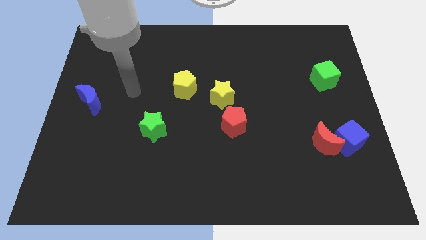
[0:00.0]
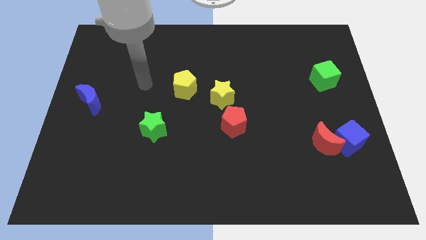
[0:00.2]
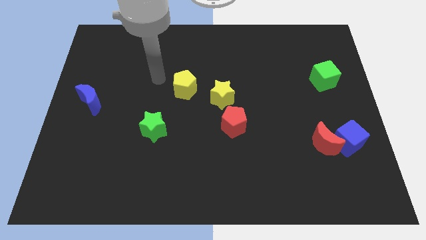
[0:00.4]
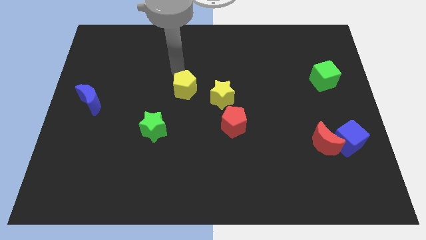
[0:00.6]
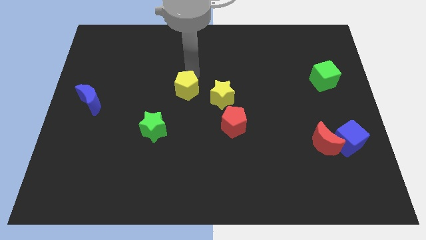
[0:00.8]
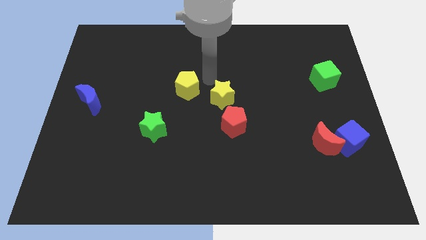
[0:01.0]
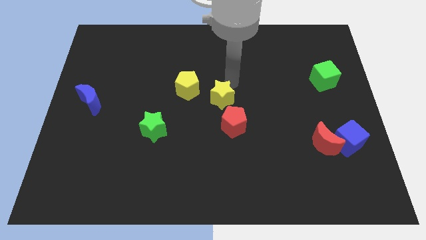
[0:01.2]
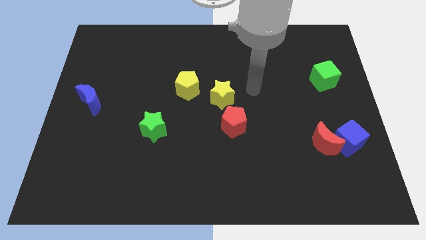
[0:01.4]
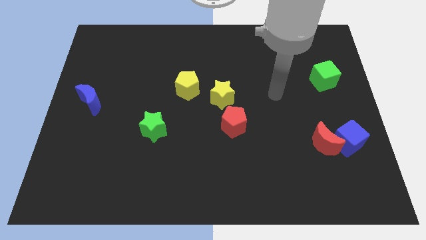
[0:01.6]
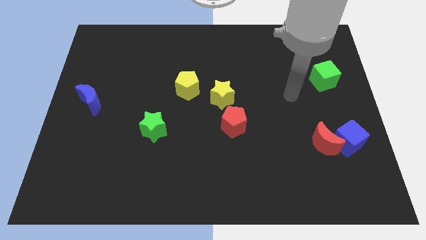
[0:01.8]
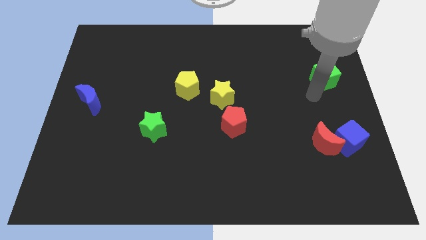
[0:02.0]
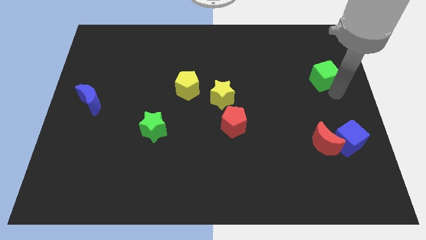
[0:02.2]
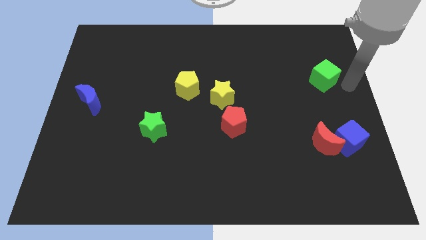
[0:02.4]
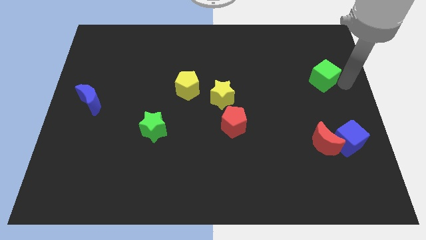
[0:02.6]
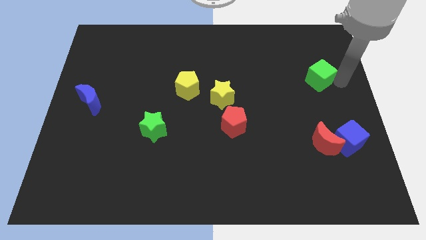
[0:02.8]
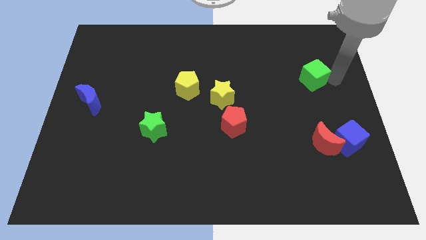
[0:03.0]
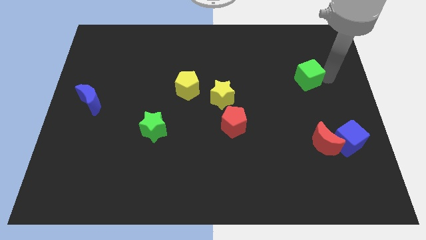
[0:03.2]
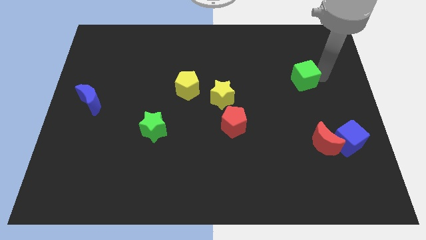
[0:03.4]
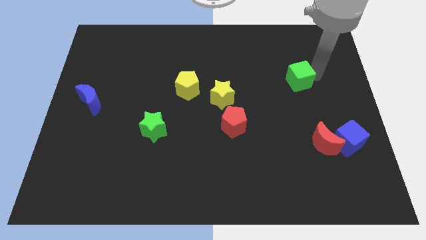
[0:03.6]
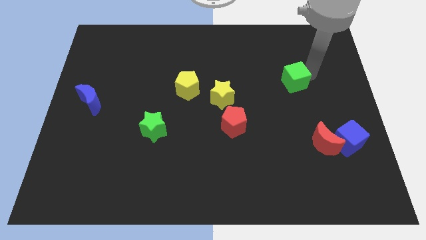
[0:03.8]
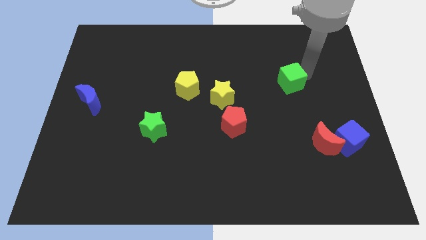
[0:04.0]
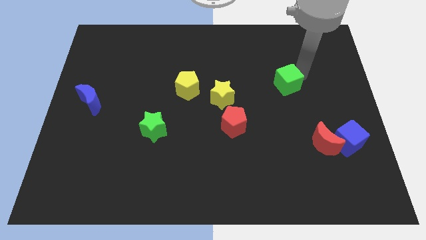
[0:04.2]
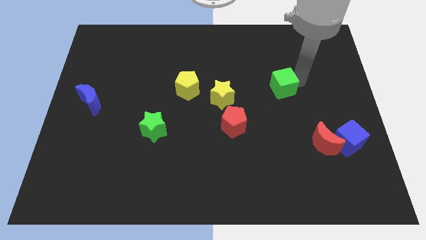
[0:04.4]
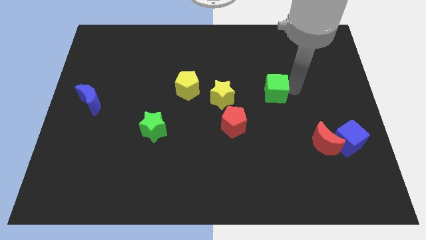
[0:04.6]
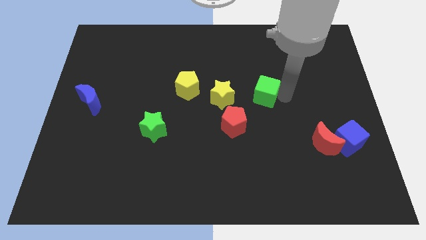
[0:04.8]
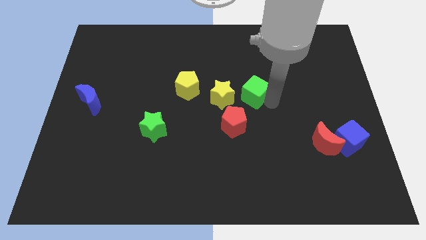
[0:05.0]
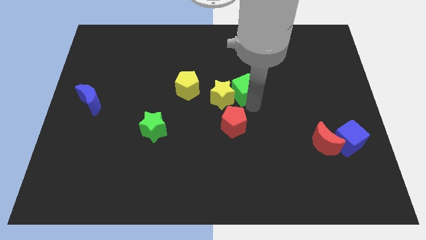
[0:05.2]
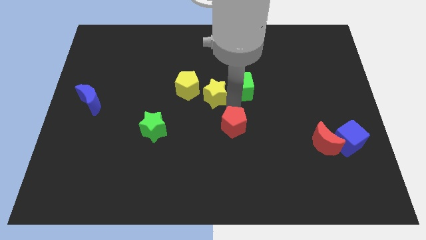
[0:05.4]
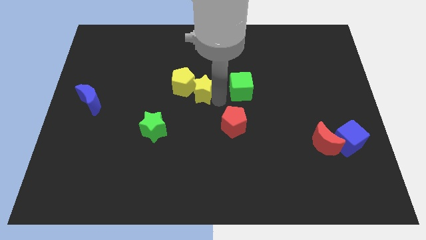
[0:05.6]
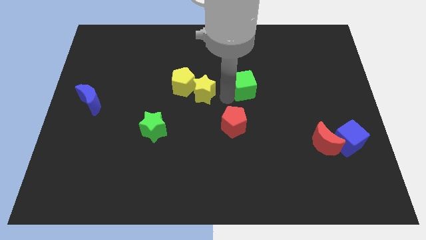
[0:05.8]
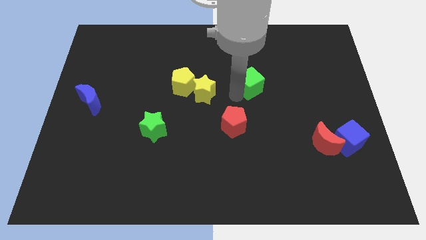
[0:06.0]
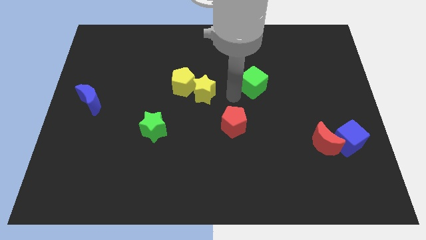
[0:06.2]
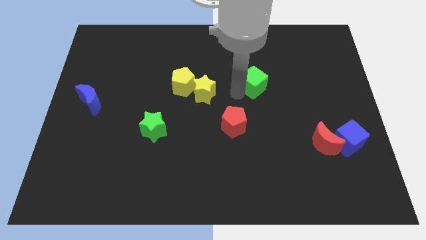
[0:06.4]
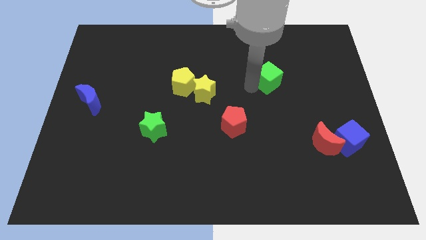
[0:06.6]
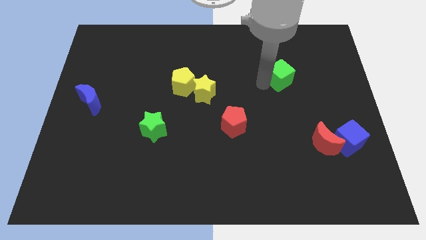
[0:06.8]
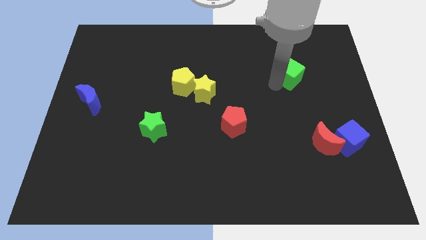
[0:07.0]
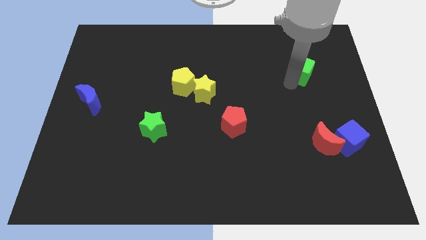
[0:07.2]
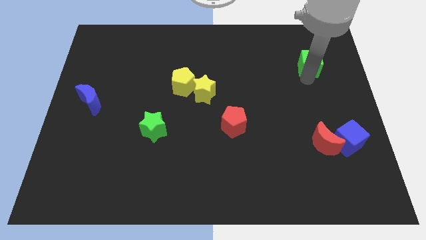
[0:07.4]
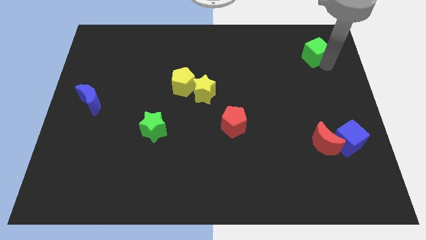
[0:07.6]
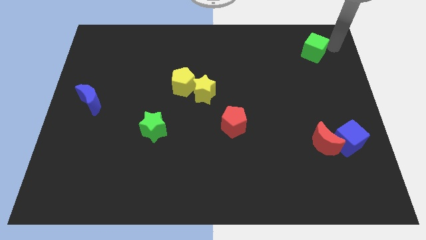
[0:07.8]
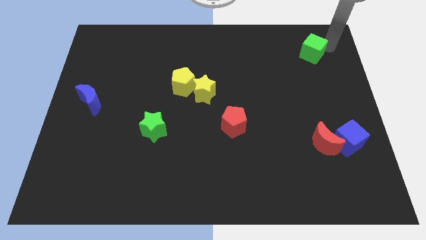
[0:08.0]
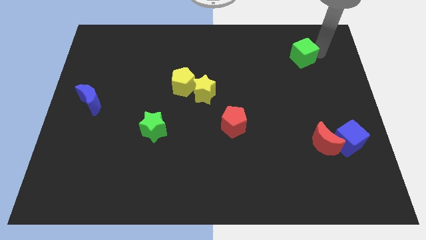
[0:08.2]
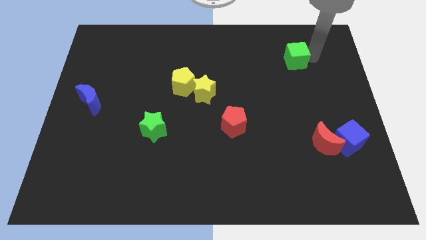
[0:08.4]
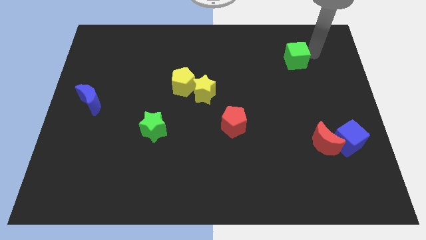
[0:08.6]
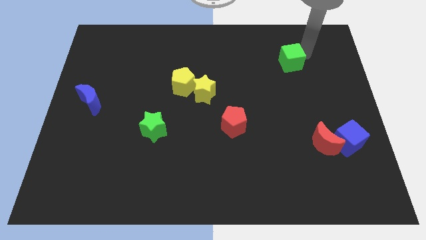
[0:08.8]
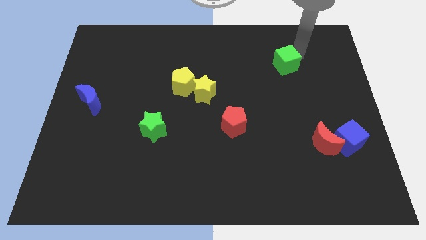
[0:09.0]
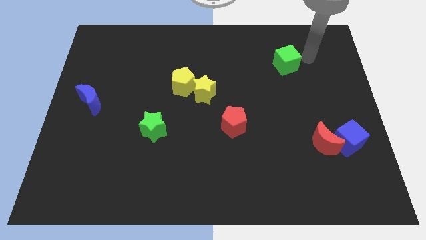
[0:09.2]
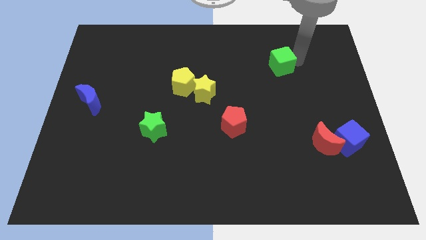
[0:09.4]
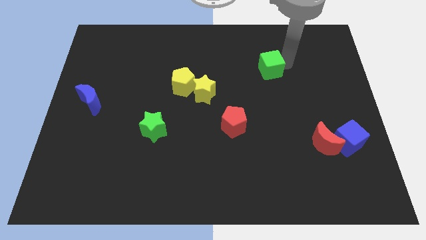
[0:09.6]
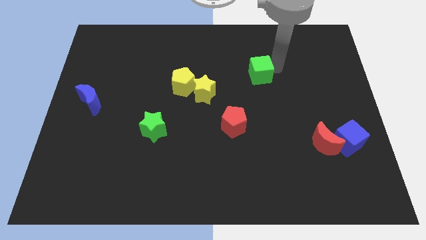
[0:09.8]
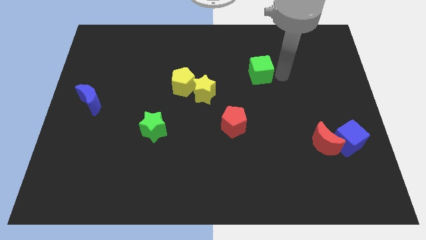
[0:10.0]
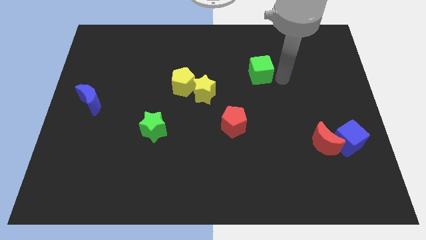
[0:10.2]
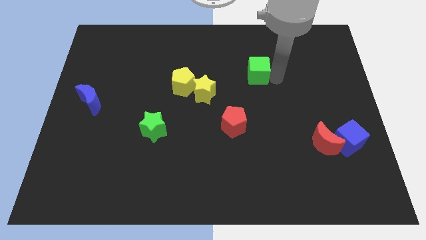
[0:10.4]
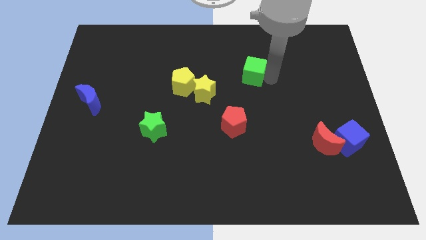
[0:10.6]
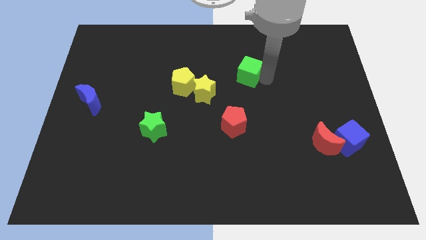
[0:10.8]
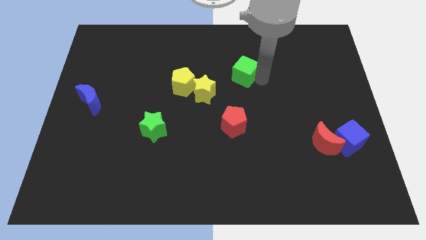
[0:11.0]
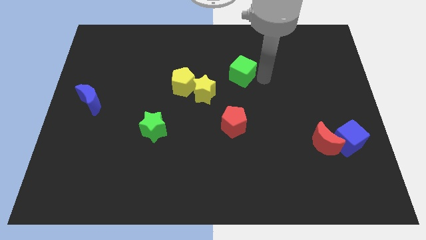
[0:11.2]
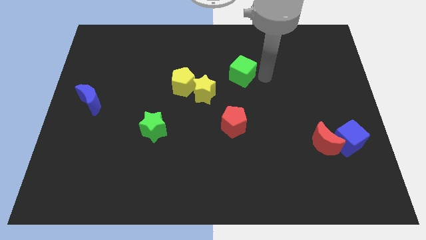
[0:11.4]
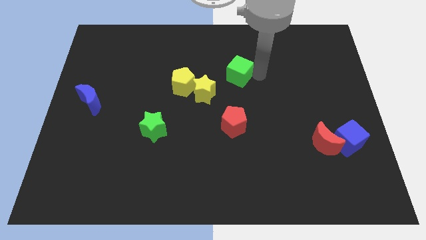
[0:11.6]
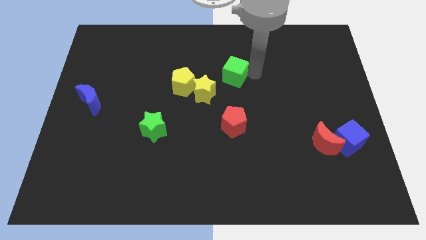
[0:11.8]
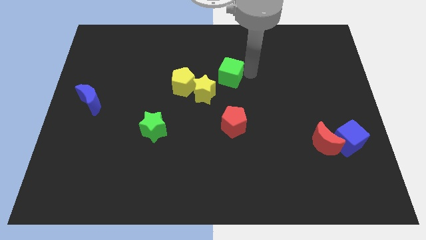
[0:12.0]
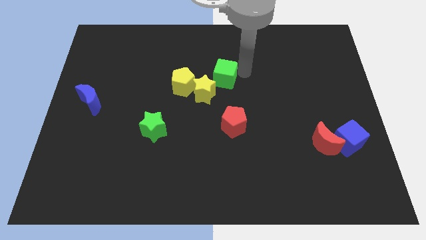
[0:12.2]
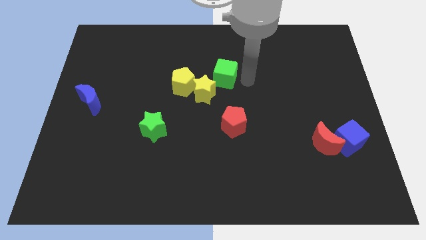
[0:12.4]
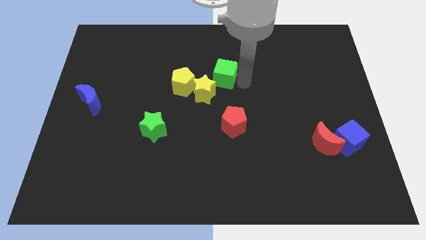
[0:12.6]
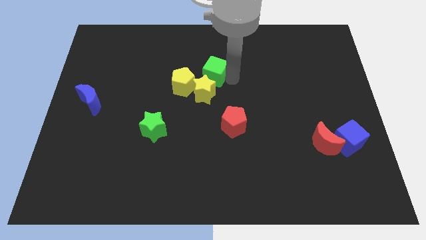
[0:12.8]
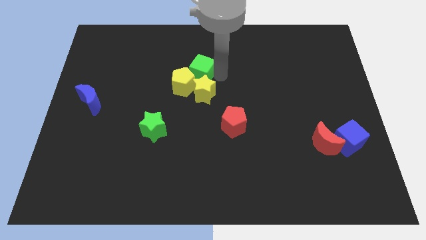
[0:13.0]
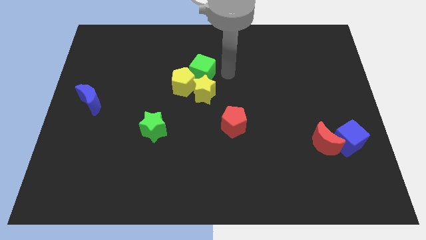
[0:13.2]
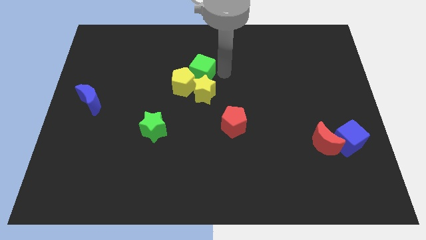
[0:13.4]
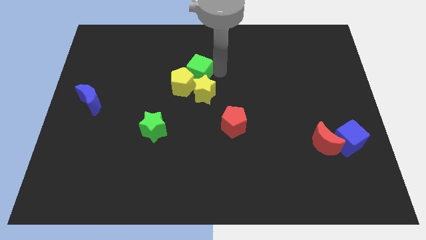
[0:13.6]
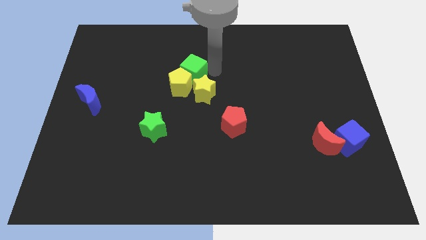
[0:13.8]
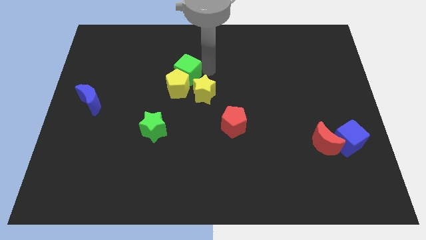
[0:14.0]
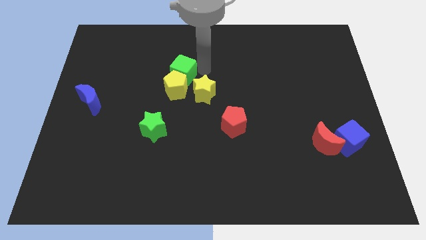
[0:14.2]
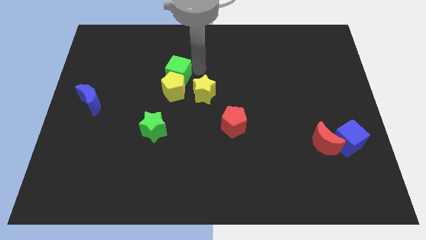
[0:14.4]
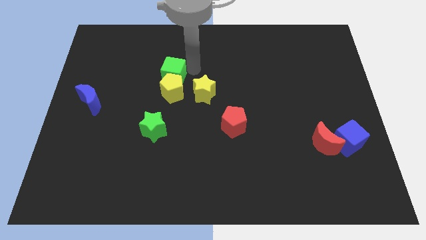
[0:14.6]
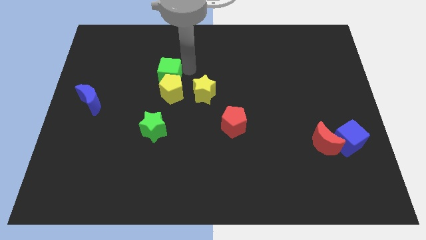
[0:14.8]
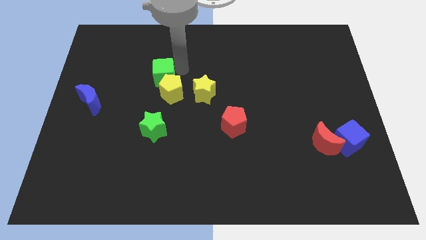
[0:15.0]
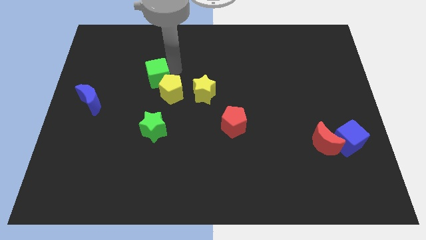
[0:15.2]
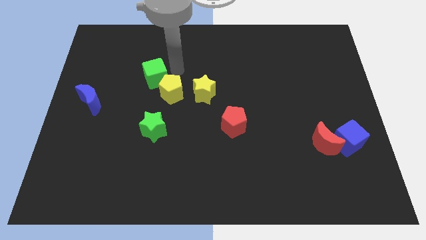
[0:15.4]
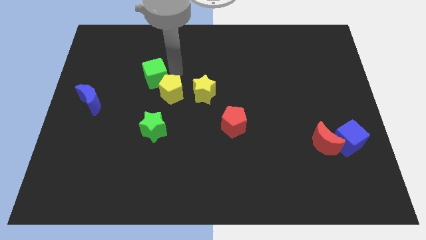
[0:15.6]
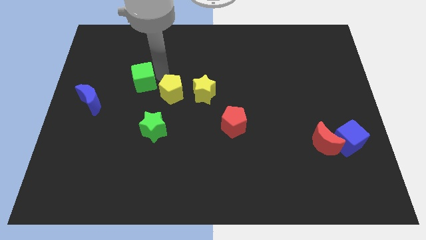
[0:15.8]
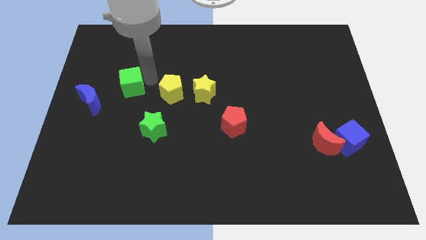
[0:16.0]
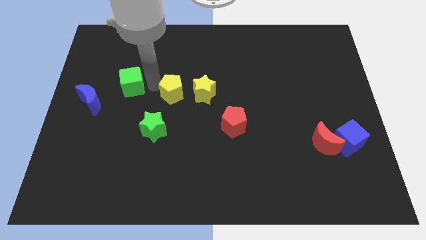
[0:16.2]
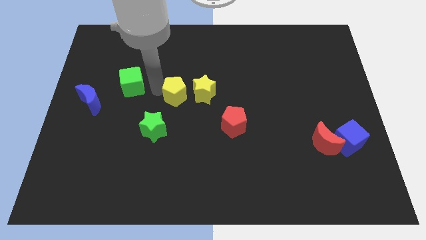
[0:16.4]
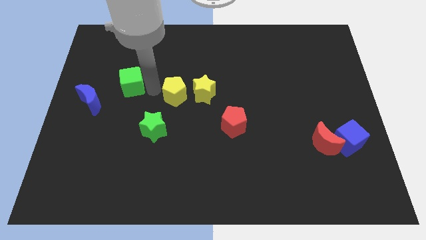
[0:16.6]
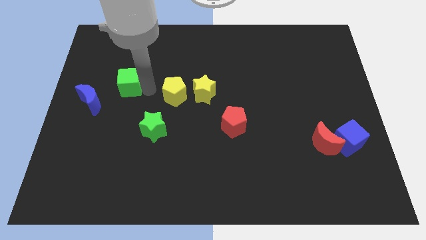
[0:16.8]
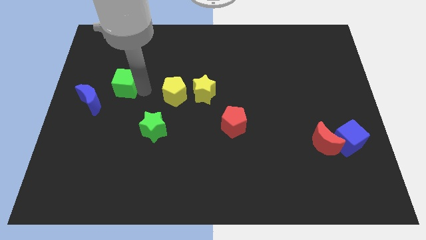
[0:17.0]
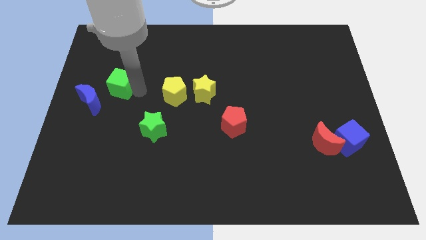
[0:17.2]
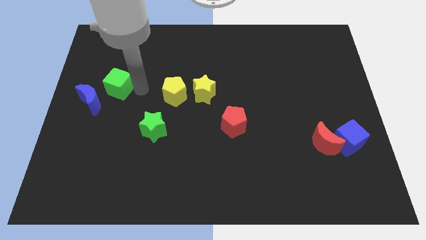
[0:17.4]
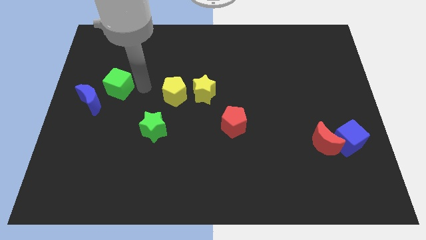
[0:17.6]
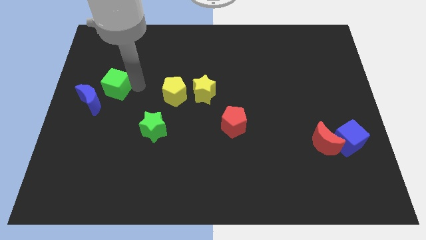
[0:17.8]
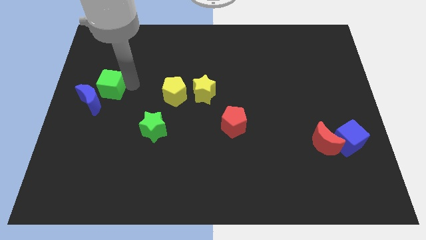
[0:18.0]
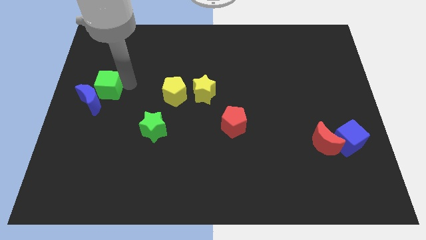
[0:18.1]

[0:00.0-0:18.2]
push the green cube to the center left
